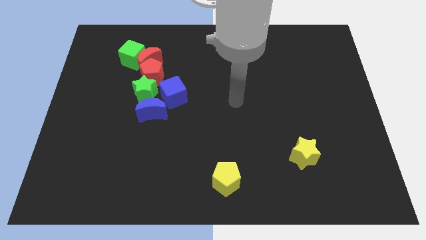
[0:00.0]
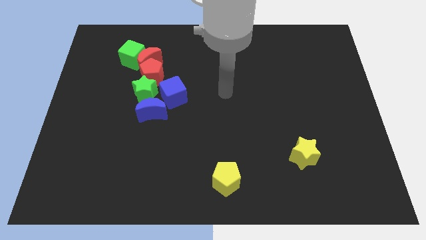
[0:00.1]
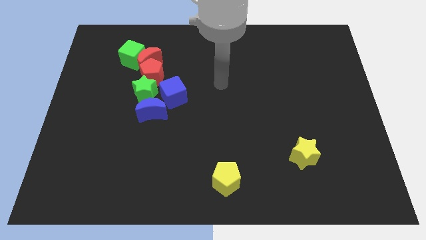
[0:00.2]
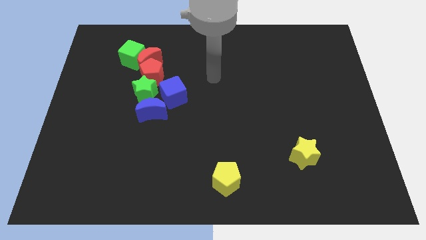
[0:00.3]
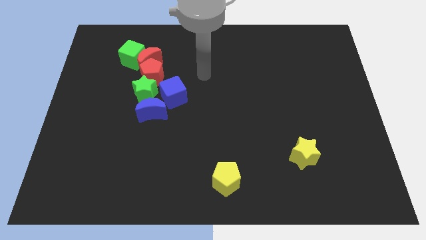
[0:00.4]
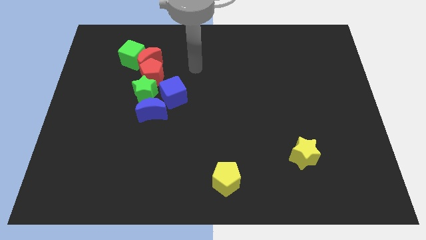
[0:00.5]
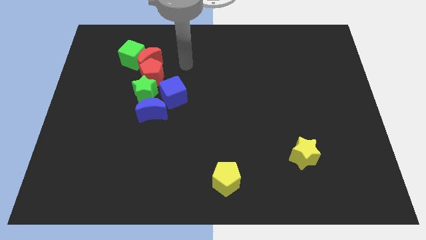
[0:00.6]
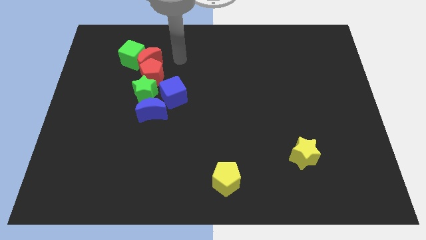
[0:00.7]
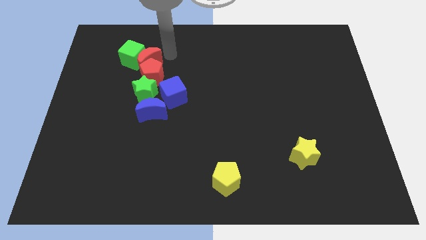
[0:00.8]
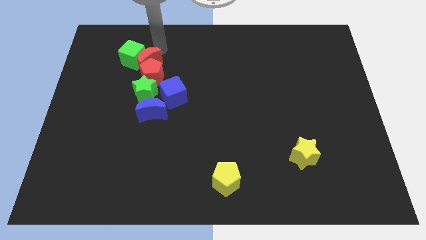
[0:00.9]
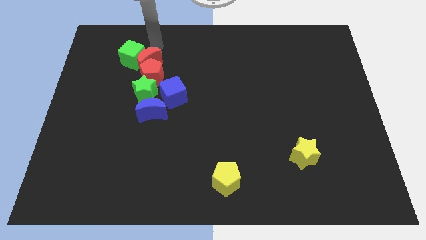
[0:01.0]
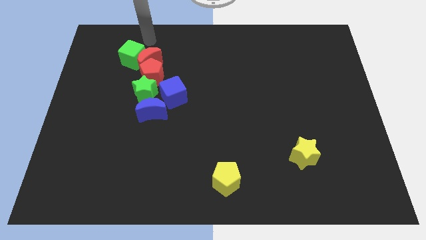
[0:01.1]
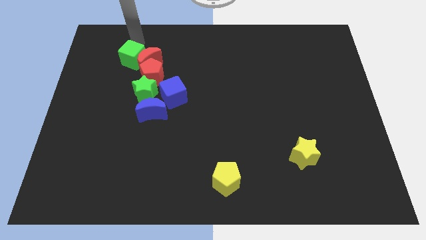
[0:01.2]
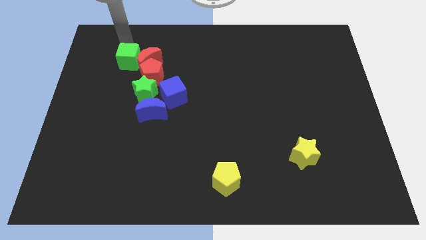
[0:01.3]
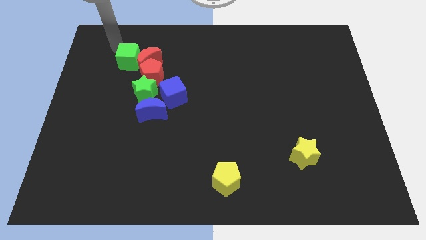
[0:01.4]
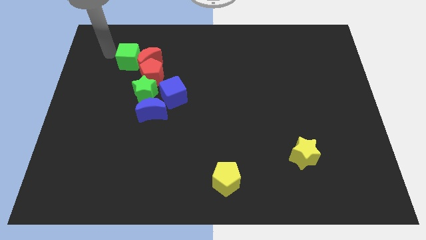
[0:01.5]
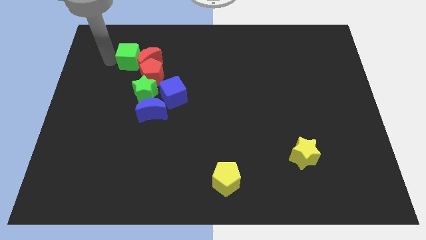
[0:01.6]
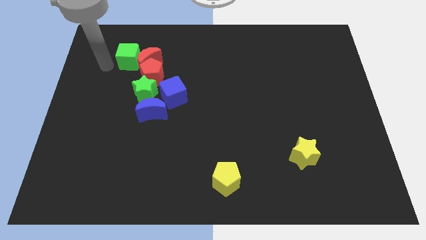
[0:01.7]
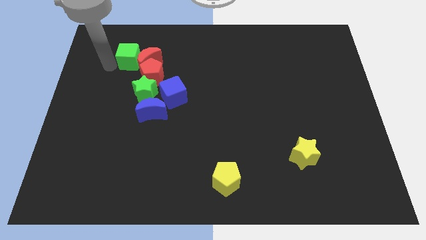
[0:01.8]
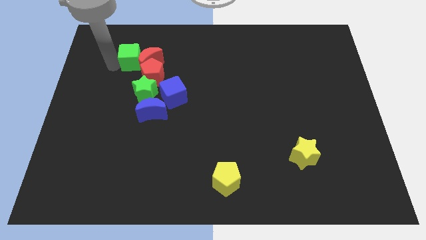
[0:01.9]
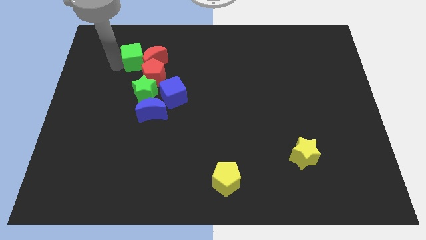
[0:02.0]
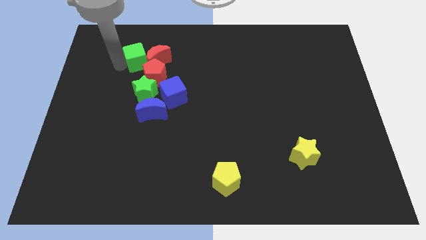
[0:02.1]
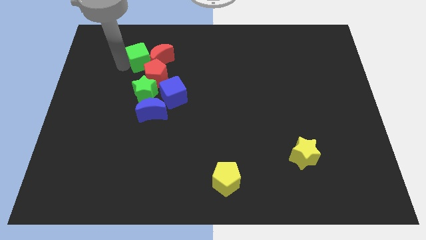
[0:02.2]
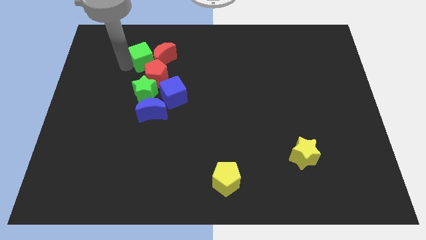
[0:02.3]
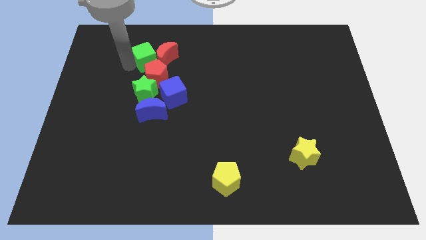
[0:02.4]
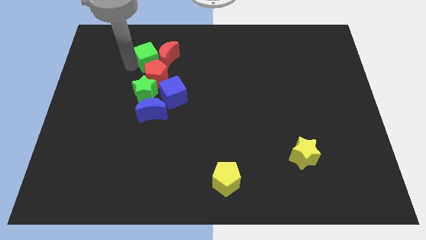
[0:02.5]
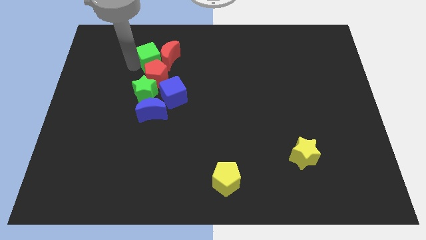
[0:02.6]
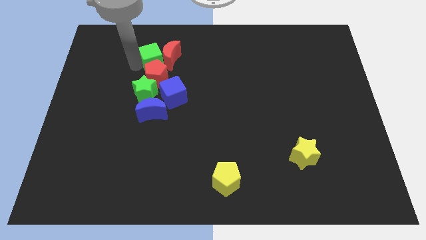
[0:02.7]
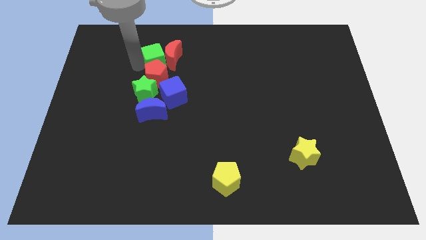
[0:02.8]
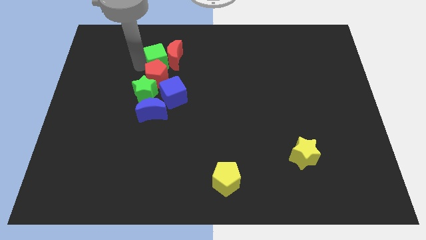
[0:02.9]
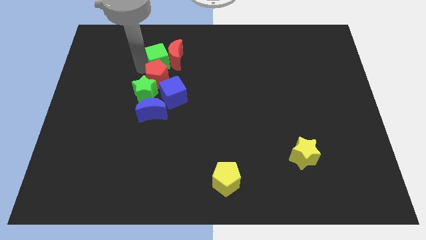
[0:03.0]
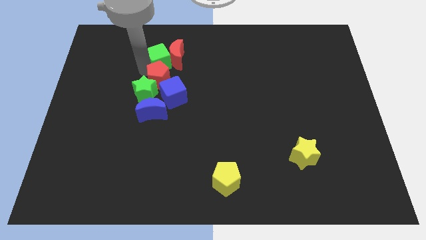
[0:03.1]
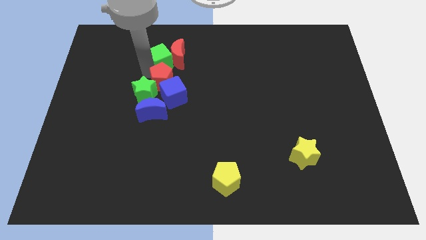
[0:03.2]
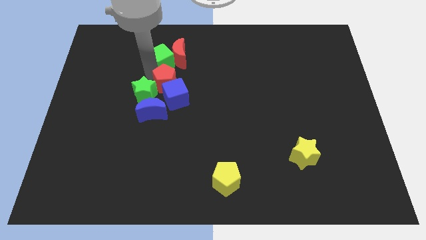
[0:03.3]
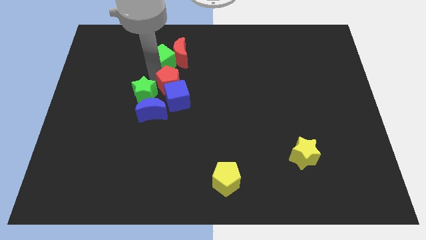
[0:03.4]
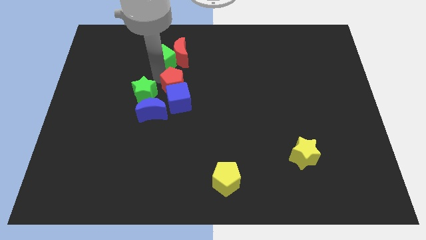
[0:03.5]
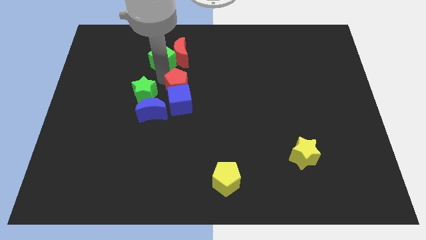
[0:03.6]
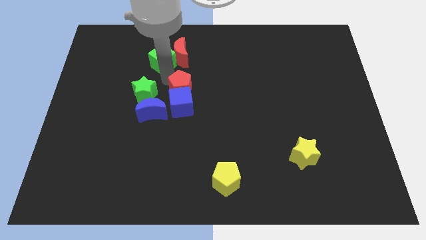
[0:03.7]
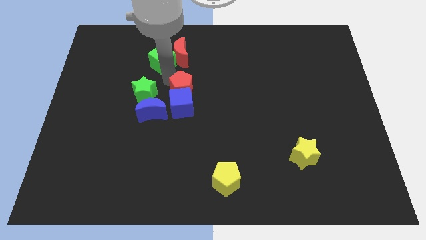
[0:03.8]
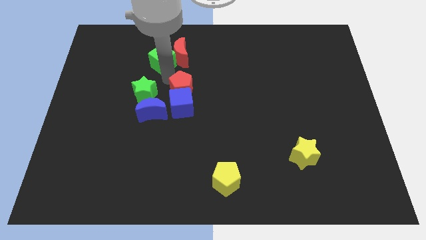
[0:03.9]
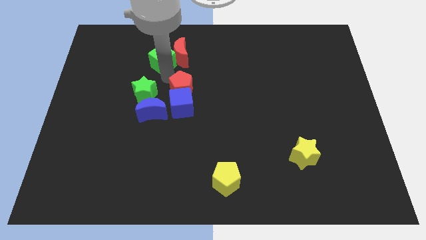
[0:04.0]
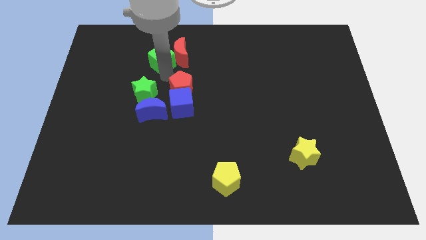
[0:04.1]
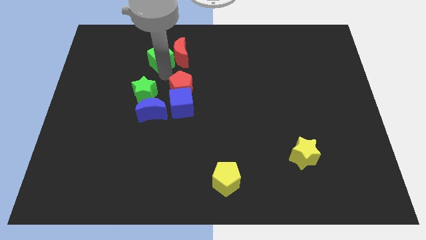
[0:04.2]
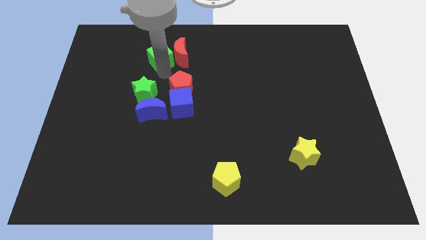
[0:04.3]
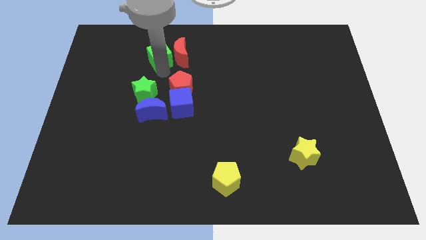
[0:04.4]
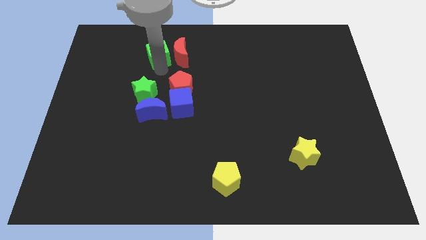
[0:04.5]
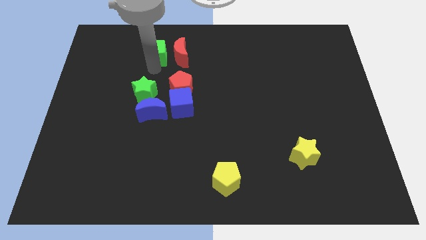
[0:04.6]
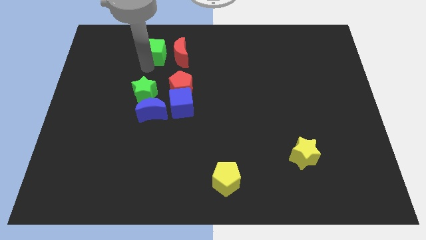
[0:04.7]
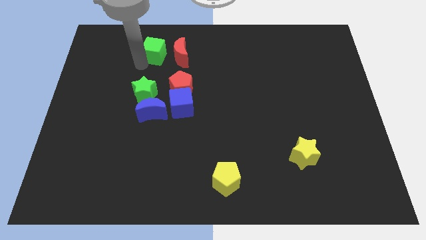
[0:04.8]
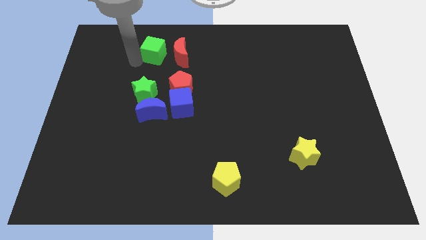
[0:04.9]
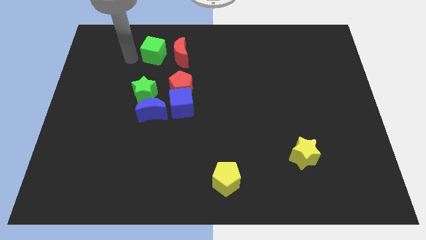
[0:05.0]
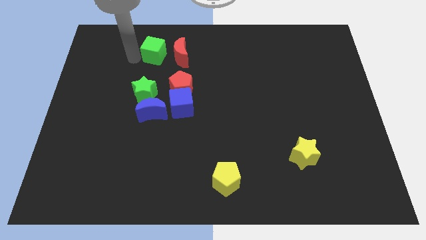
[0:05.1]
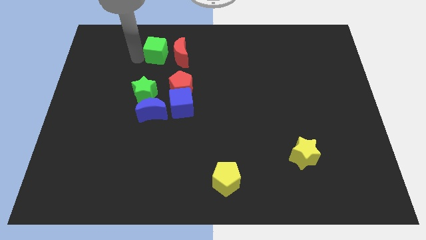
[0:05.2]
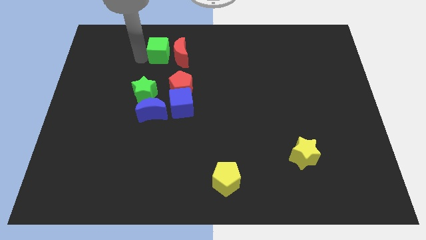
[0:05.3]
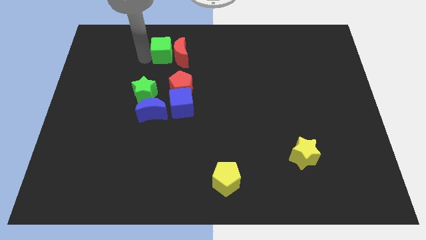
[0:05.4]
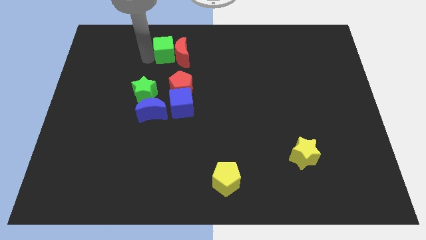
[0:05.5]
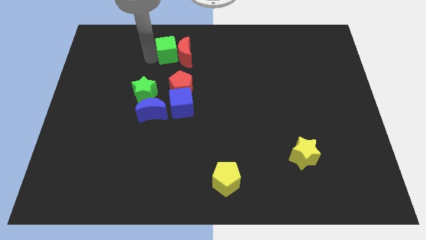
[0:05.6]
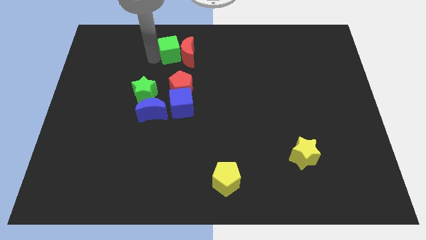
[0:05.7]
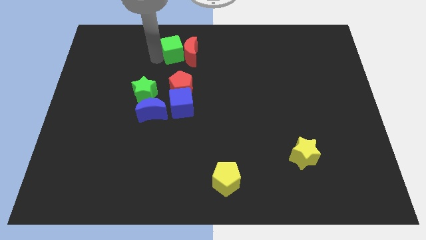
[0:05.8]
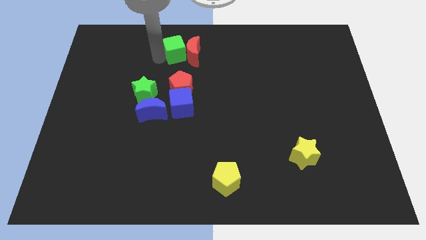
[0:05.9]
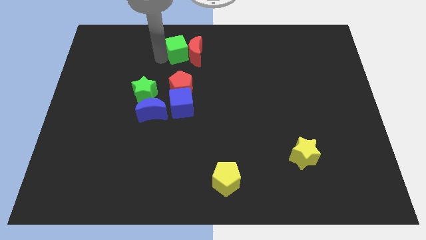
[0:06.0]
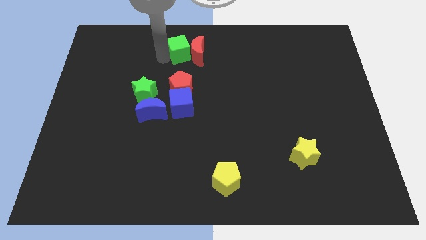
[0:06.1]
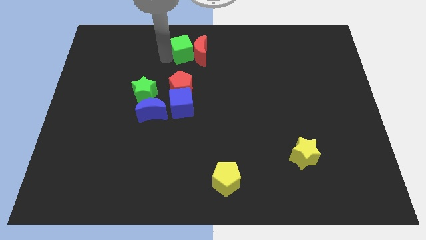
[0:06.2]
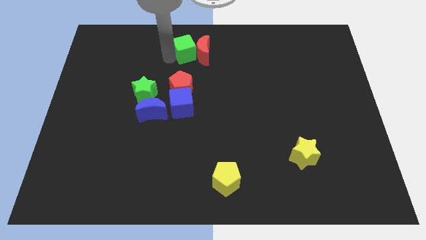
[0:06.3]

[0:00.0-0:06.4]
move the green cube to the towards your base

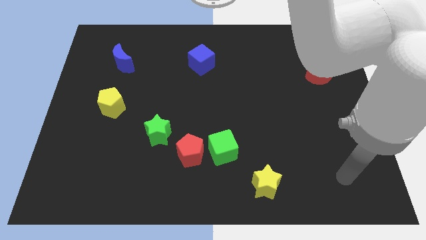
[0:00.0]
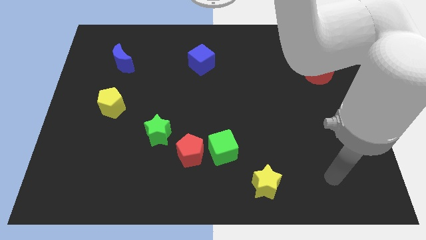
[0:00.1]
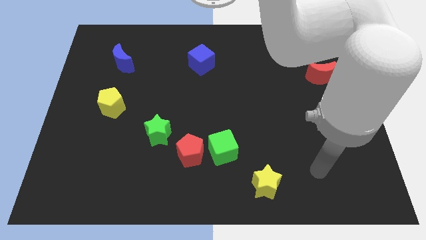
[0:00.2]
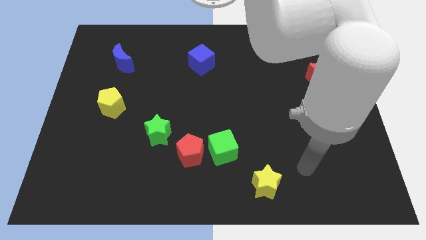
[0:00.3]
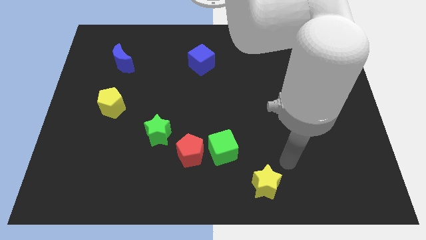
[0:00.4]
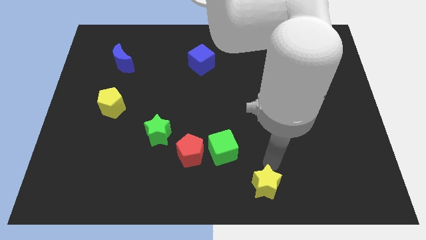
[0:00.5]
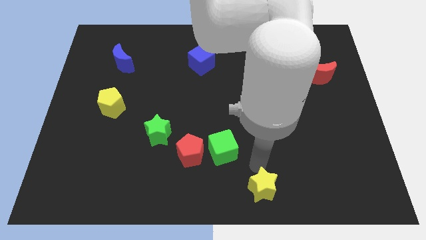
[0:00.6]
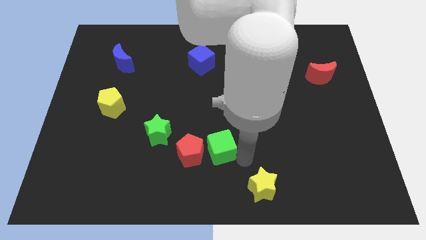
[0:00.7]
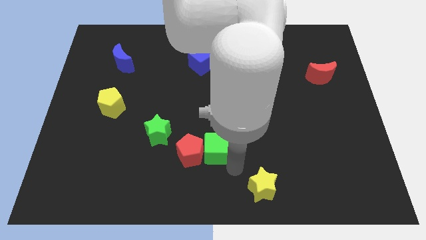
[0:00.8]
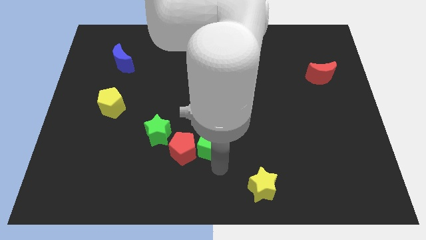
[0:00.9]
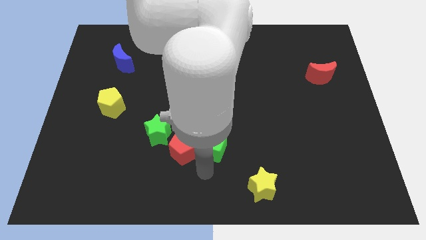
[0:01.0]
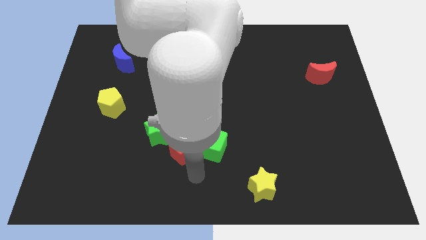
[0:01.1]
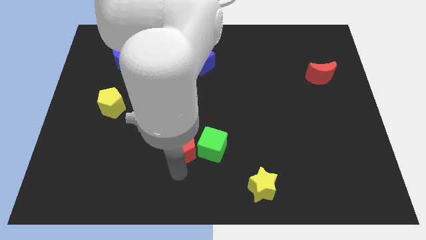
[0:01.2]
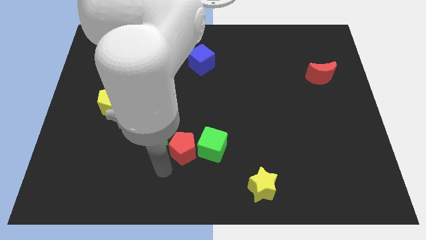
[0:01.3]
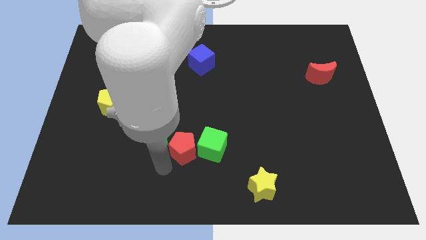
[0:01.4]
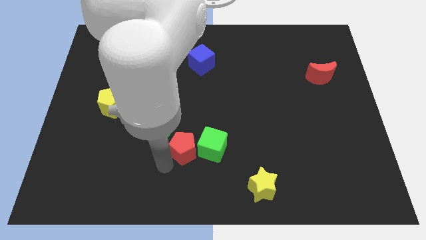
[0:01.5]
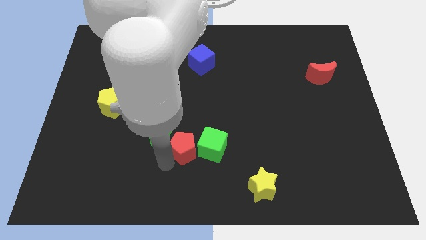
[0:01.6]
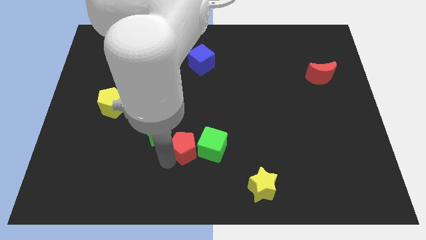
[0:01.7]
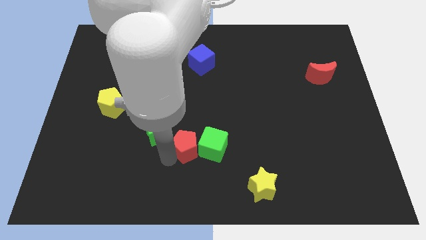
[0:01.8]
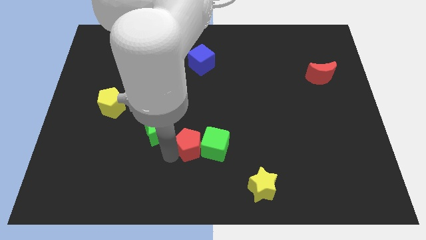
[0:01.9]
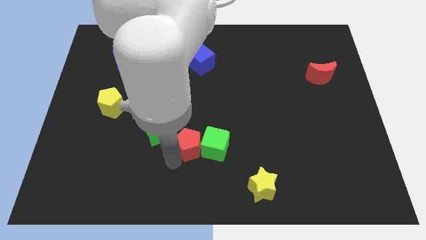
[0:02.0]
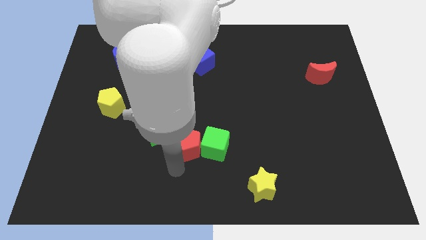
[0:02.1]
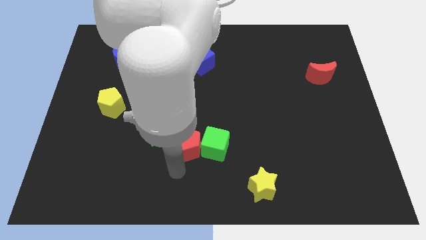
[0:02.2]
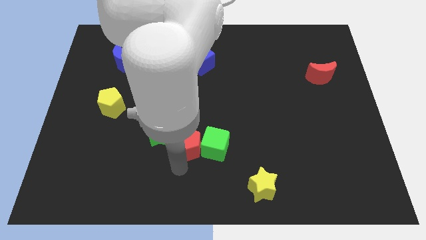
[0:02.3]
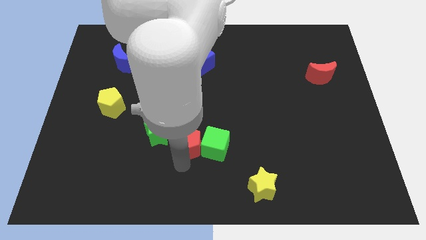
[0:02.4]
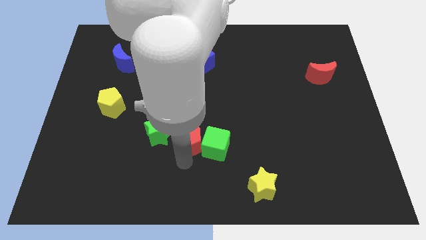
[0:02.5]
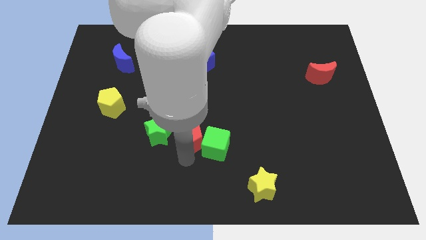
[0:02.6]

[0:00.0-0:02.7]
put the red pentagon to the middle of the board
